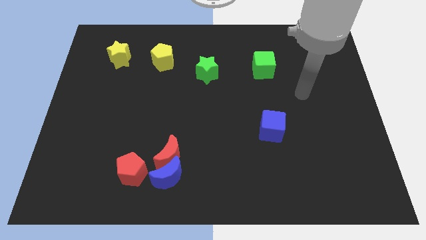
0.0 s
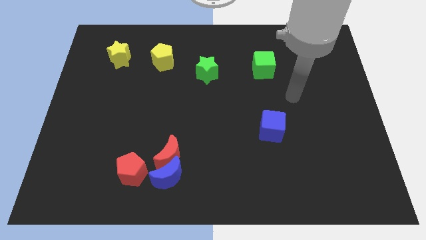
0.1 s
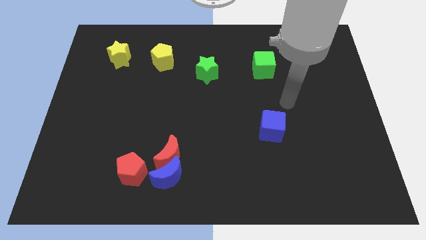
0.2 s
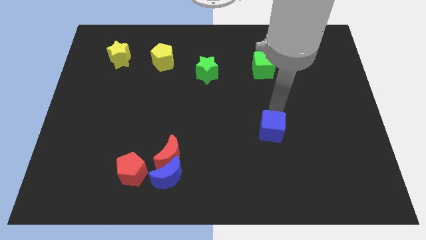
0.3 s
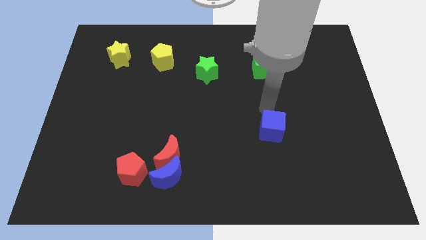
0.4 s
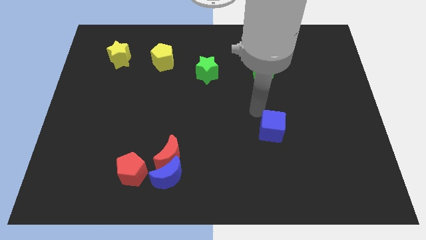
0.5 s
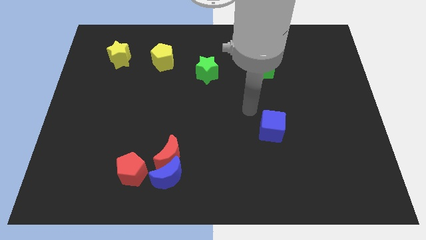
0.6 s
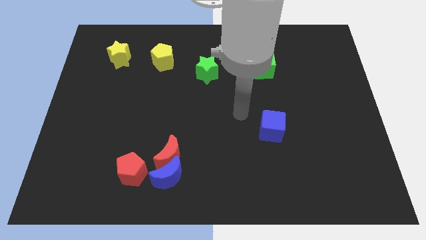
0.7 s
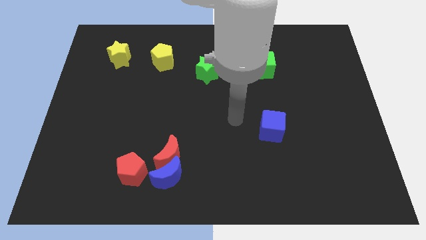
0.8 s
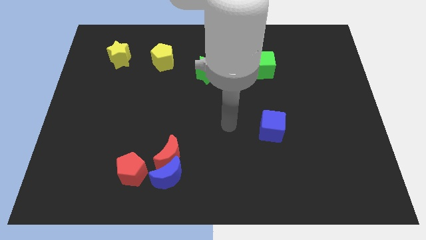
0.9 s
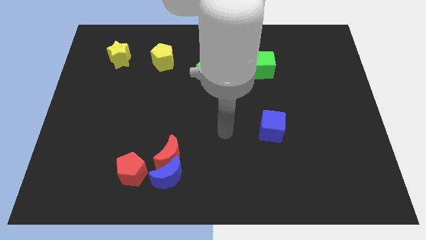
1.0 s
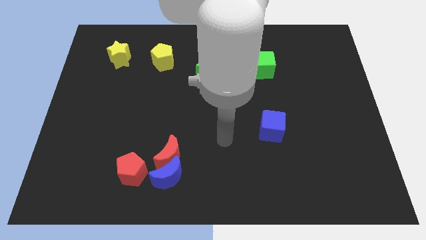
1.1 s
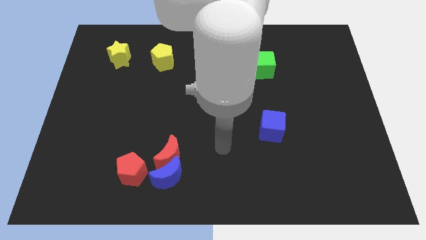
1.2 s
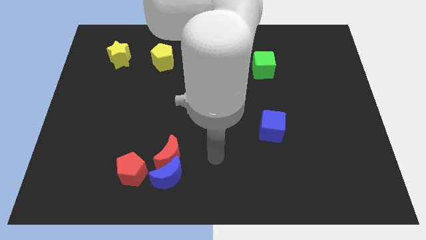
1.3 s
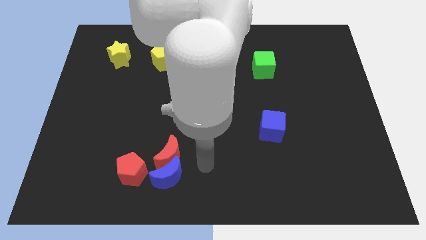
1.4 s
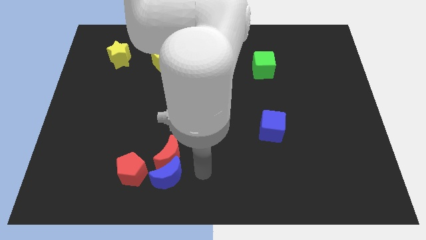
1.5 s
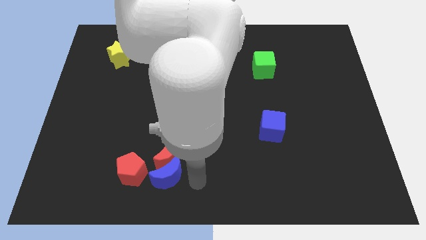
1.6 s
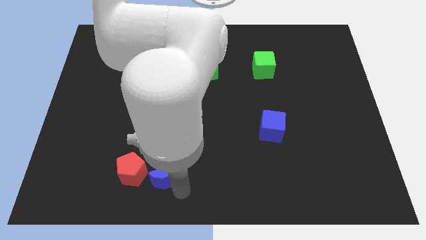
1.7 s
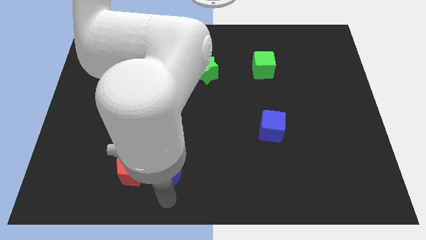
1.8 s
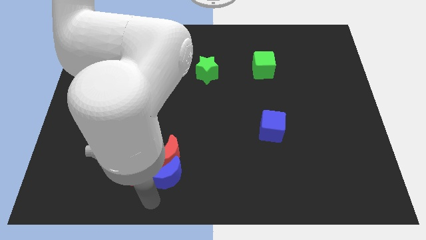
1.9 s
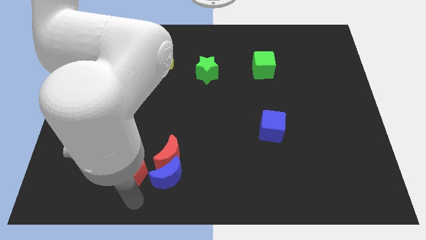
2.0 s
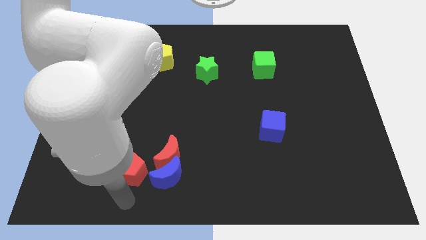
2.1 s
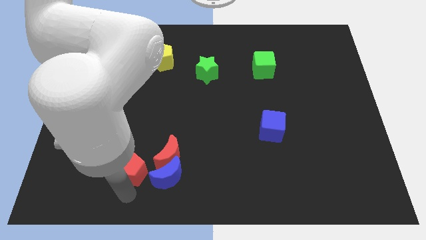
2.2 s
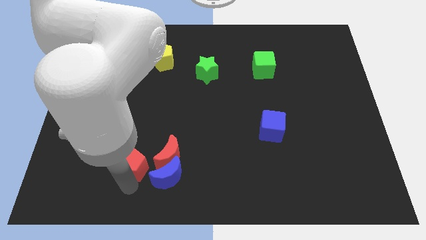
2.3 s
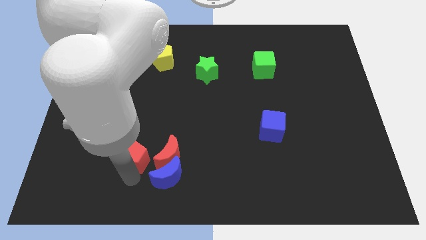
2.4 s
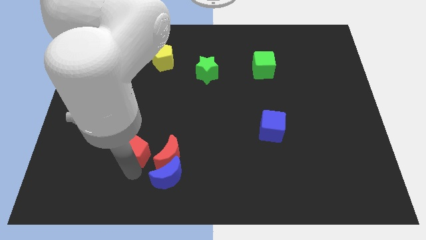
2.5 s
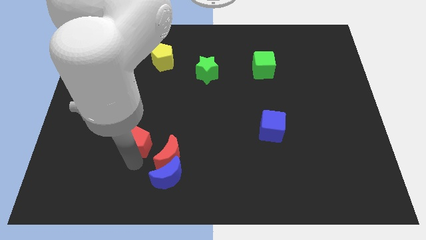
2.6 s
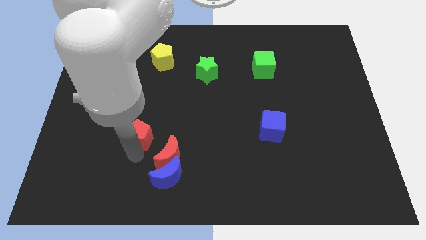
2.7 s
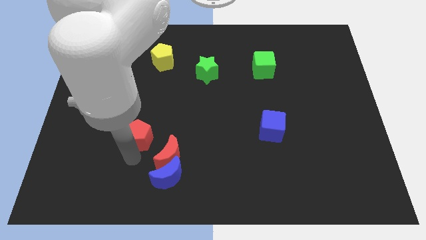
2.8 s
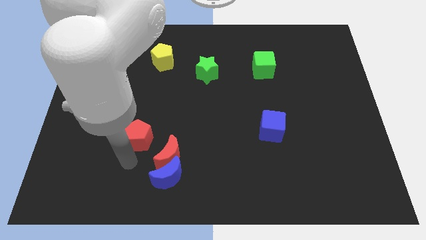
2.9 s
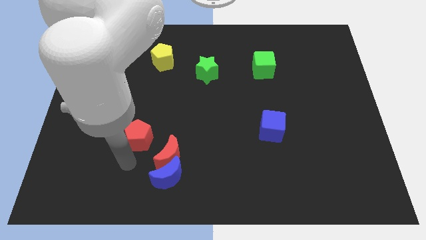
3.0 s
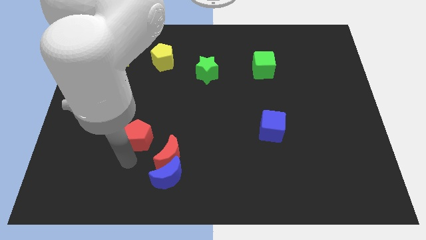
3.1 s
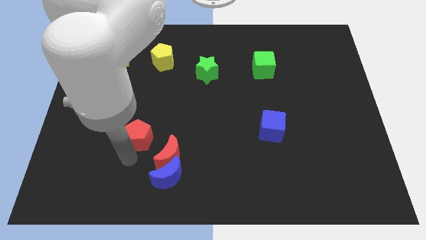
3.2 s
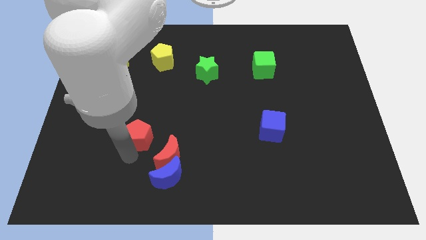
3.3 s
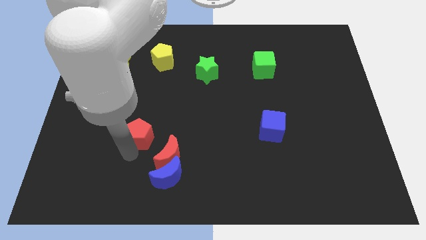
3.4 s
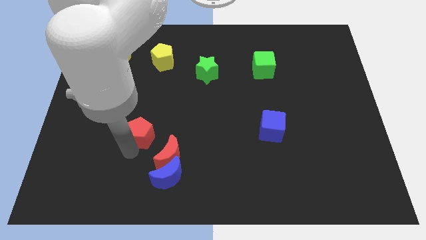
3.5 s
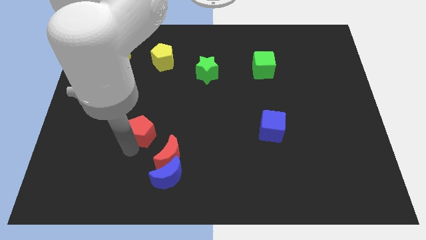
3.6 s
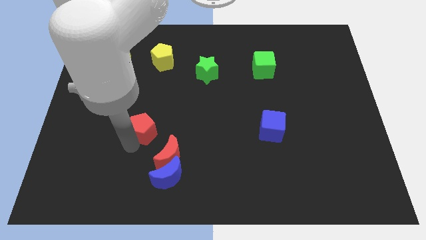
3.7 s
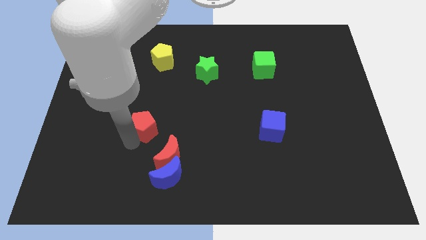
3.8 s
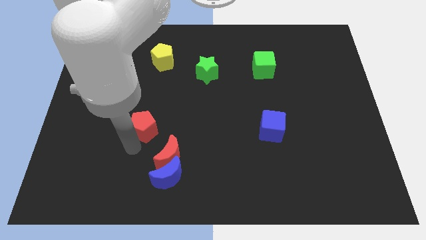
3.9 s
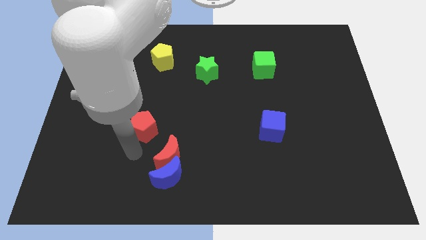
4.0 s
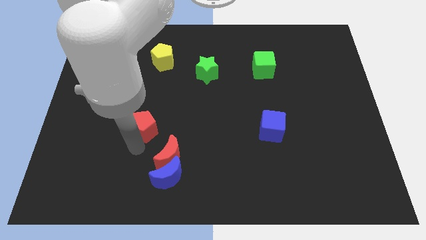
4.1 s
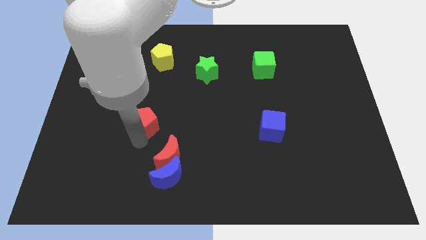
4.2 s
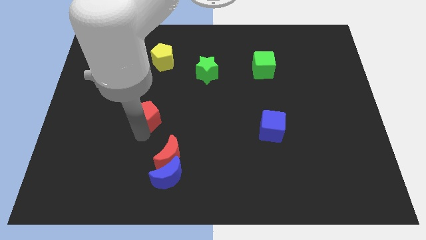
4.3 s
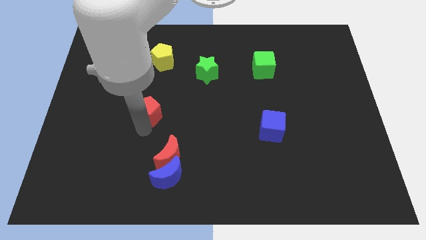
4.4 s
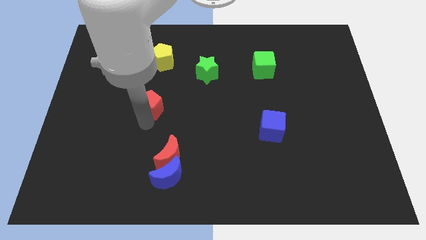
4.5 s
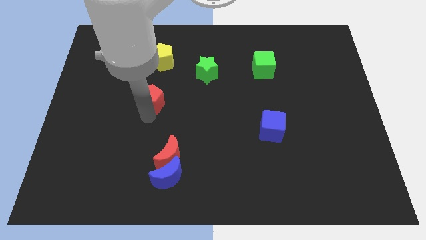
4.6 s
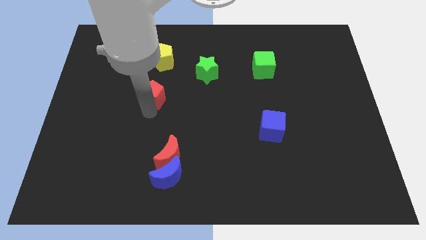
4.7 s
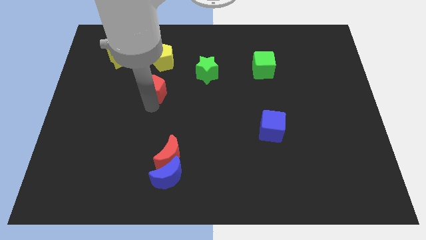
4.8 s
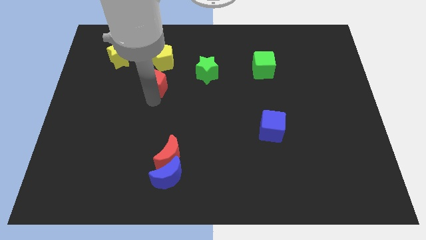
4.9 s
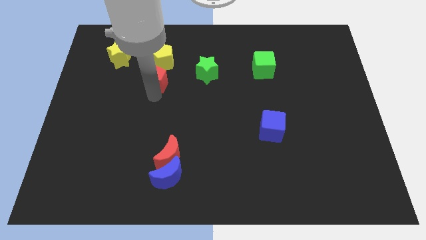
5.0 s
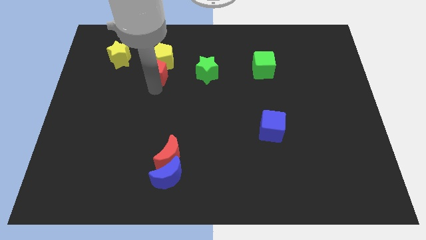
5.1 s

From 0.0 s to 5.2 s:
put the red pentagon next to the yellow pentagon

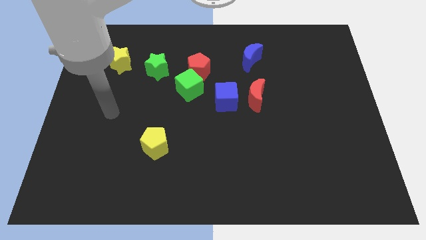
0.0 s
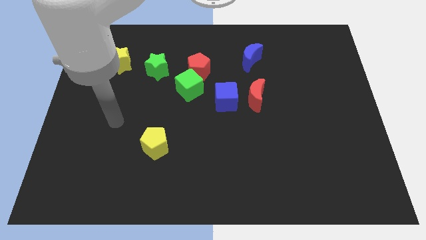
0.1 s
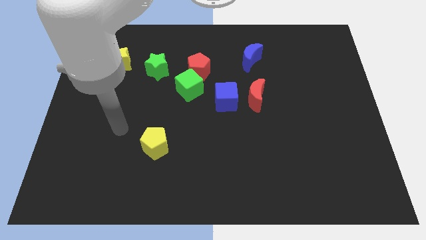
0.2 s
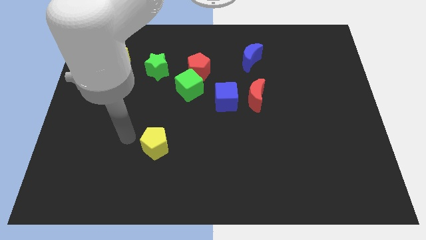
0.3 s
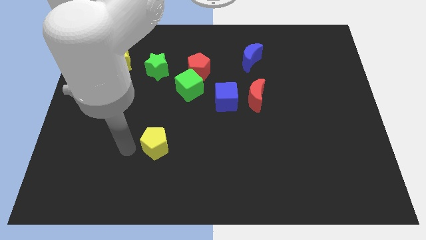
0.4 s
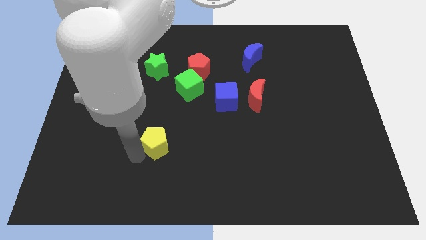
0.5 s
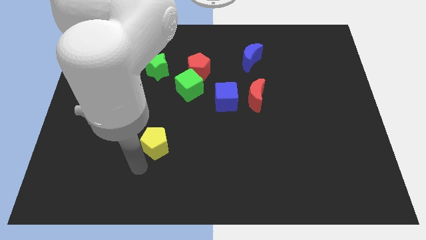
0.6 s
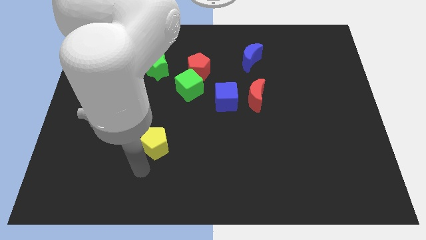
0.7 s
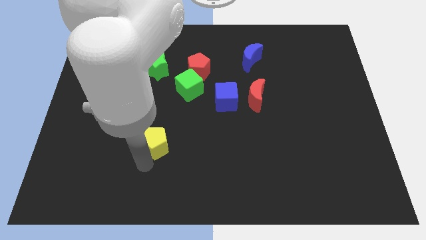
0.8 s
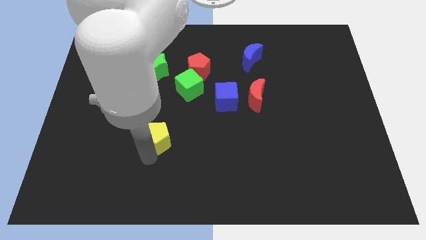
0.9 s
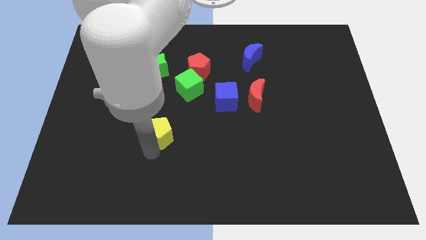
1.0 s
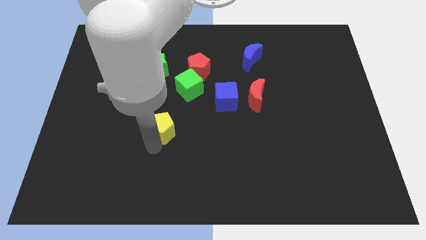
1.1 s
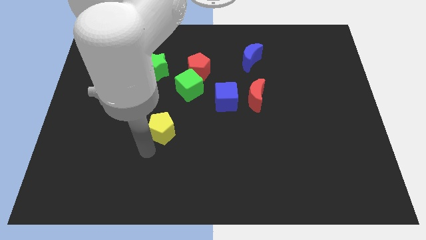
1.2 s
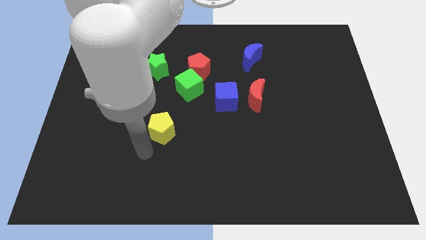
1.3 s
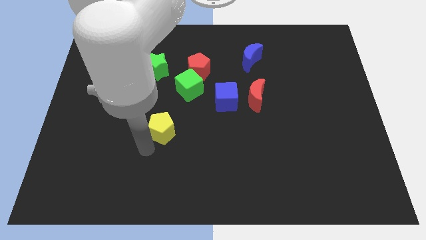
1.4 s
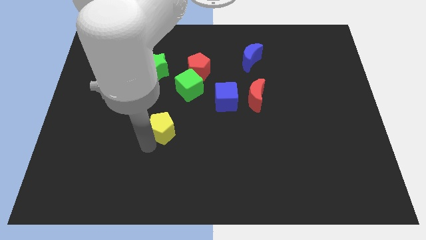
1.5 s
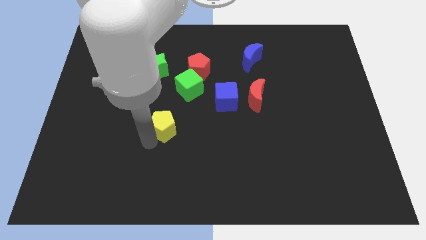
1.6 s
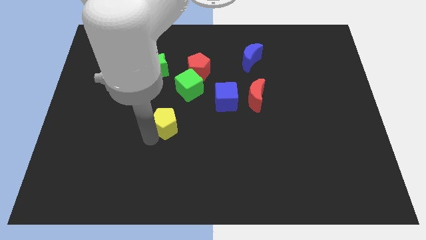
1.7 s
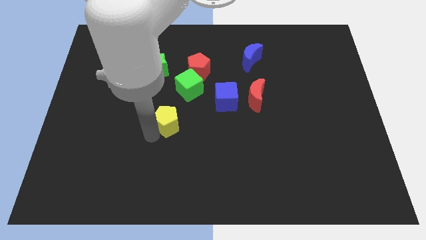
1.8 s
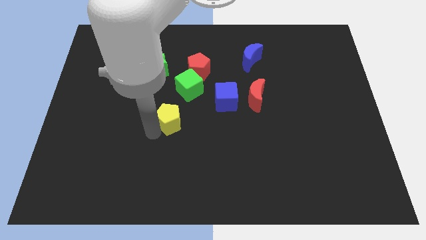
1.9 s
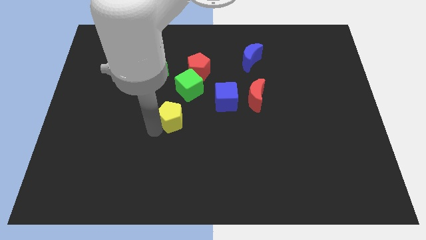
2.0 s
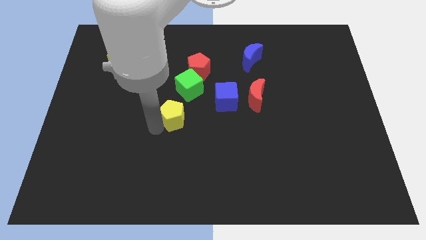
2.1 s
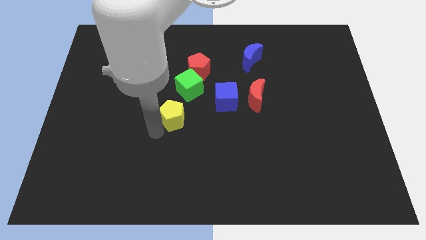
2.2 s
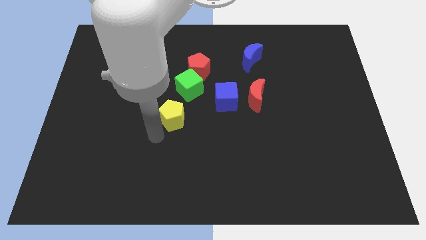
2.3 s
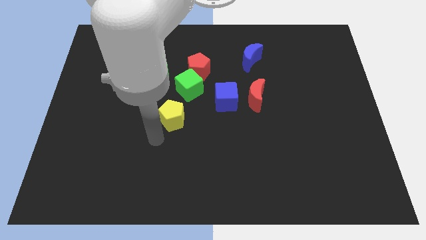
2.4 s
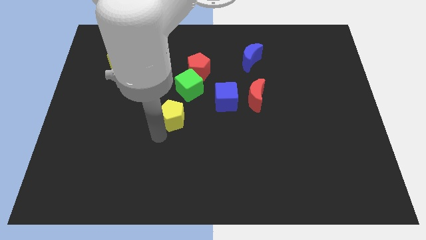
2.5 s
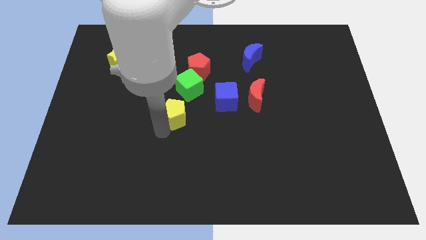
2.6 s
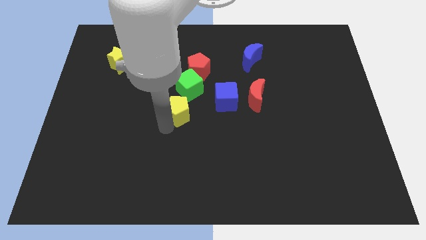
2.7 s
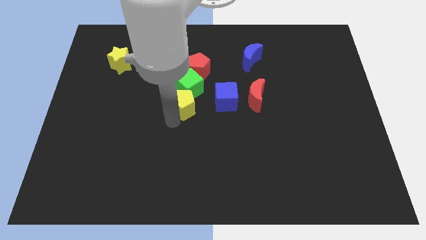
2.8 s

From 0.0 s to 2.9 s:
slide the yellow pentagon towards the green cube
